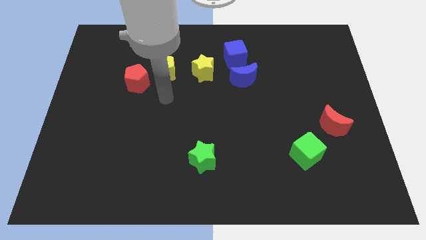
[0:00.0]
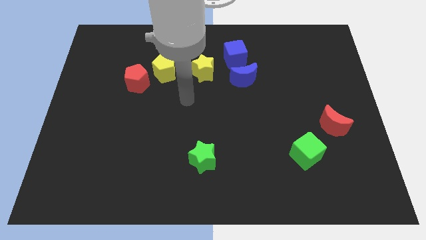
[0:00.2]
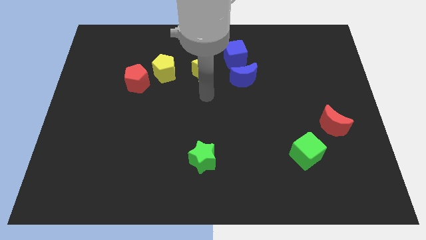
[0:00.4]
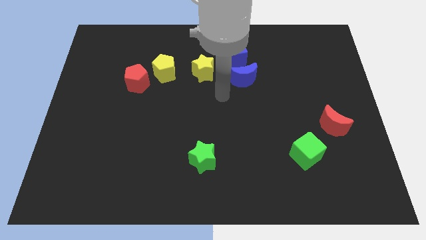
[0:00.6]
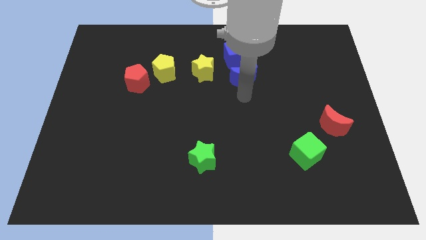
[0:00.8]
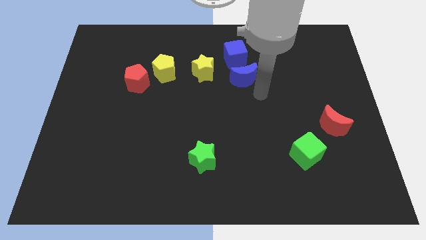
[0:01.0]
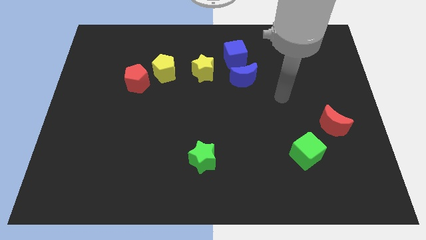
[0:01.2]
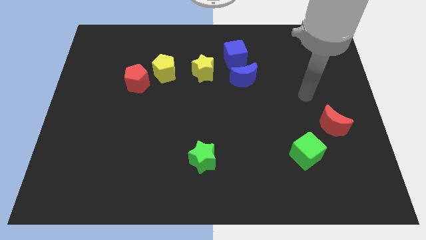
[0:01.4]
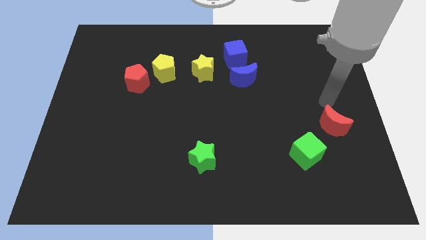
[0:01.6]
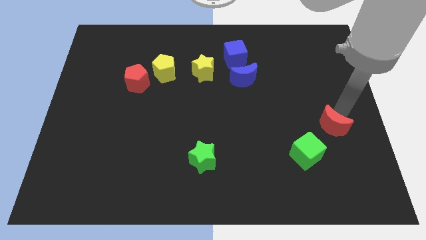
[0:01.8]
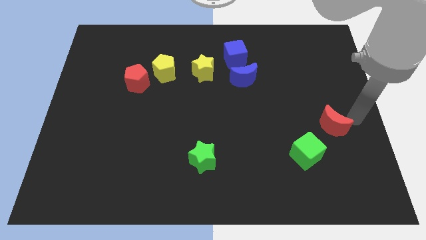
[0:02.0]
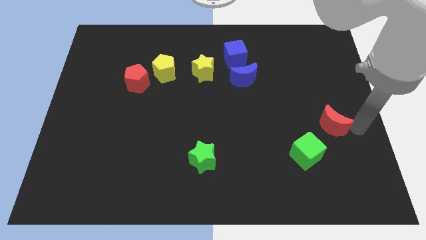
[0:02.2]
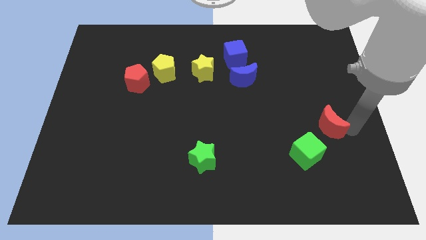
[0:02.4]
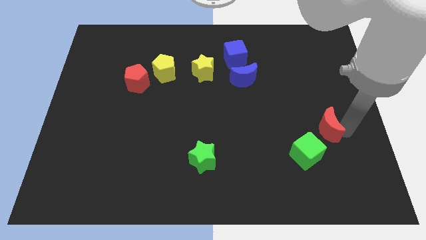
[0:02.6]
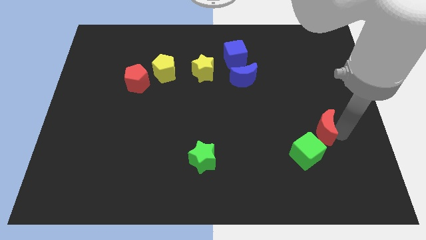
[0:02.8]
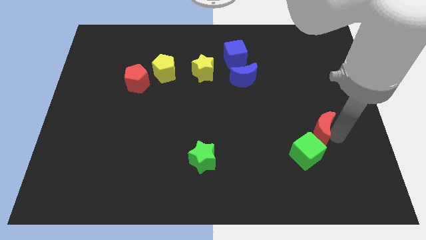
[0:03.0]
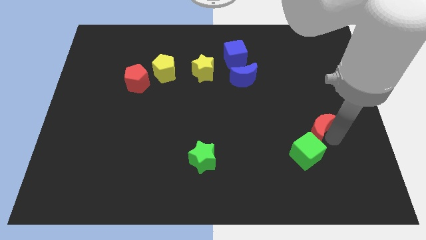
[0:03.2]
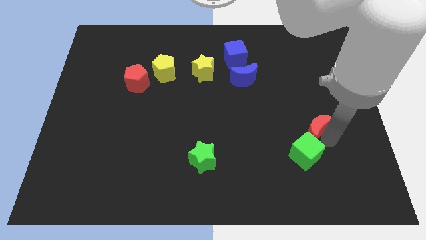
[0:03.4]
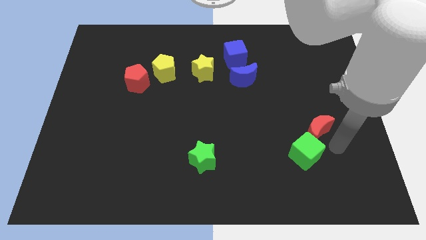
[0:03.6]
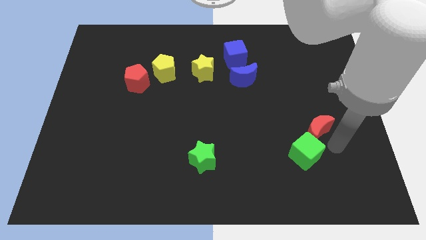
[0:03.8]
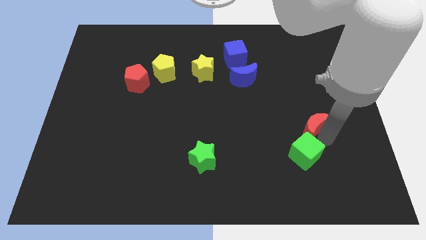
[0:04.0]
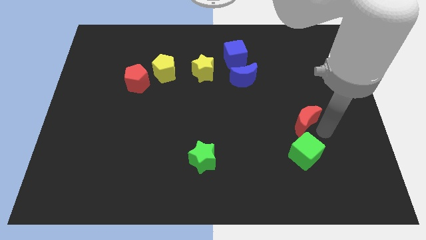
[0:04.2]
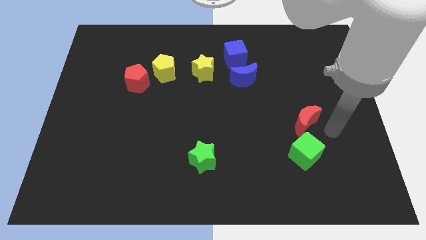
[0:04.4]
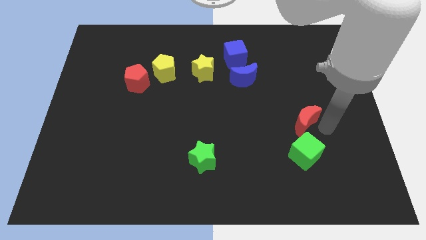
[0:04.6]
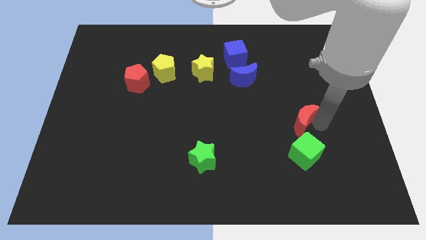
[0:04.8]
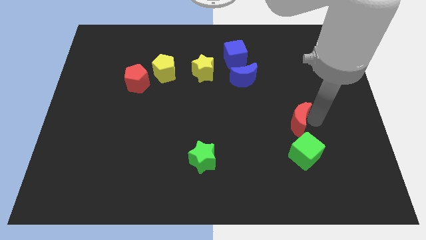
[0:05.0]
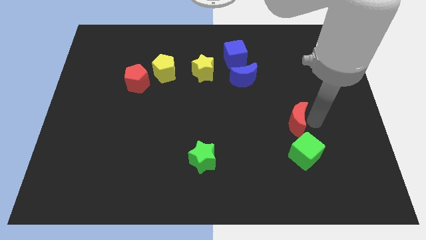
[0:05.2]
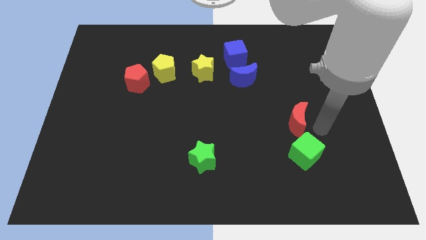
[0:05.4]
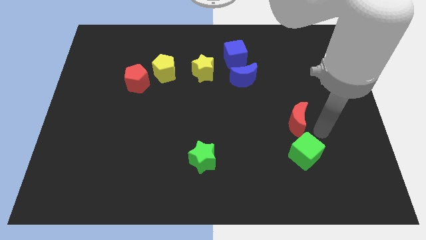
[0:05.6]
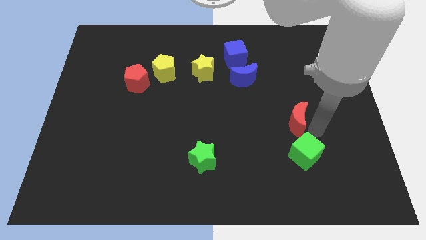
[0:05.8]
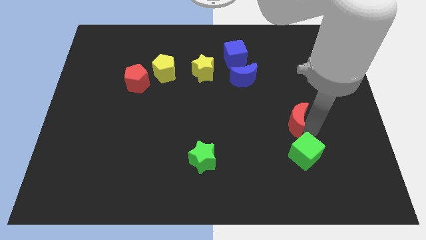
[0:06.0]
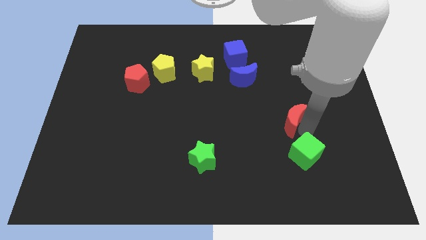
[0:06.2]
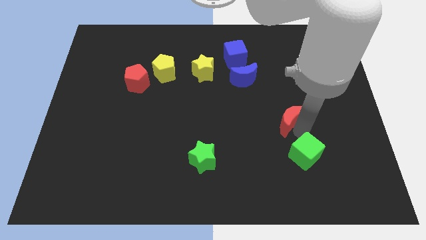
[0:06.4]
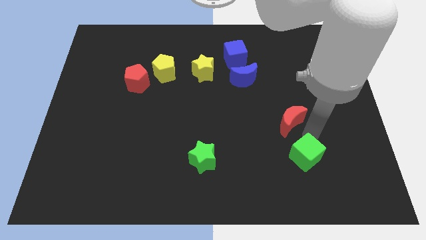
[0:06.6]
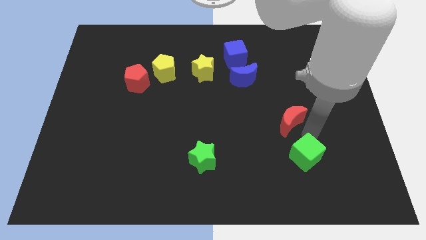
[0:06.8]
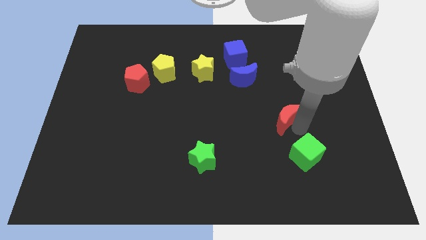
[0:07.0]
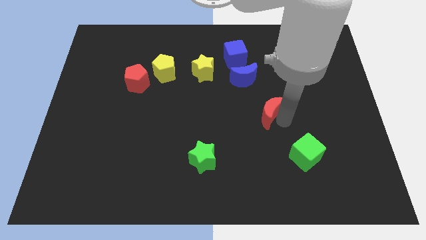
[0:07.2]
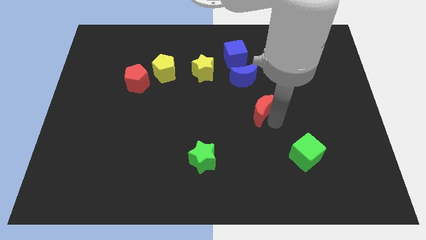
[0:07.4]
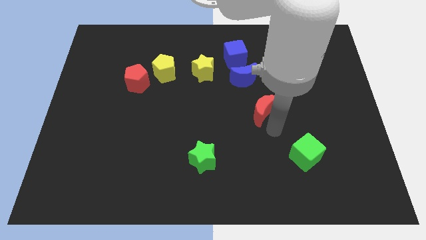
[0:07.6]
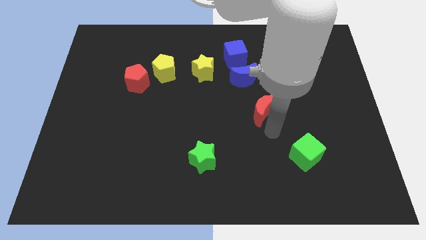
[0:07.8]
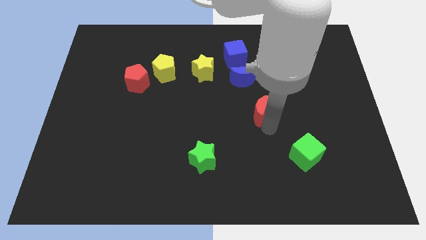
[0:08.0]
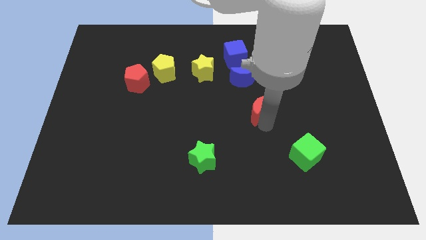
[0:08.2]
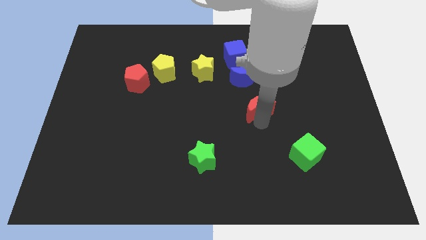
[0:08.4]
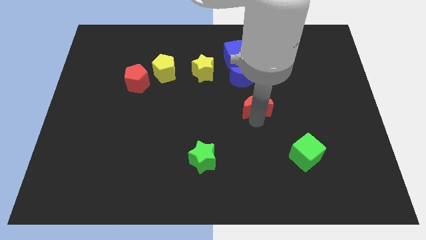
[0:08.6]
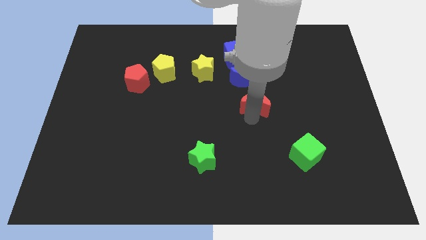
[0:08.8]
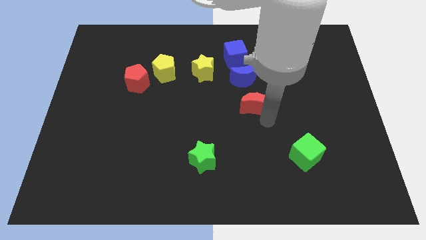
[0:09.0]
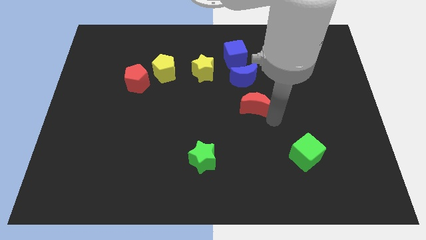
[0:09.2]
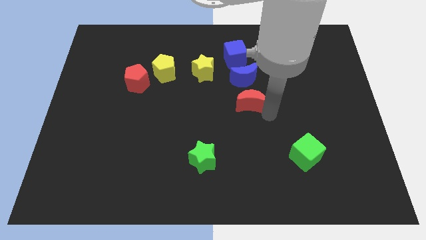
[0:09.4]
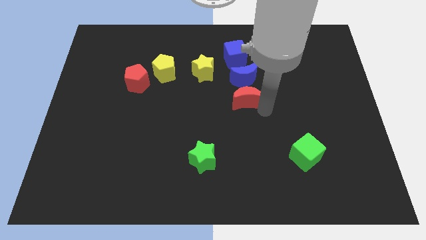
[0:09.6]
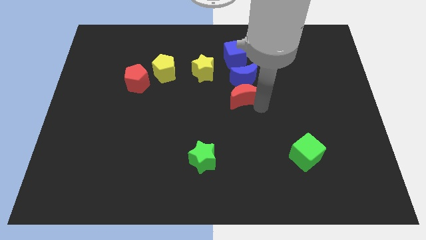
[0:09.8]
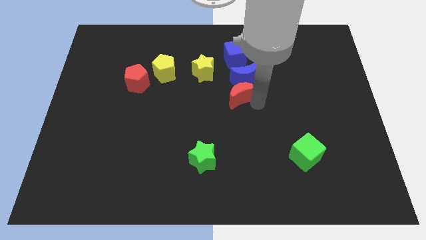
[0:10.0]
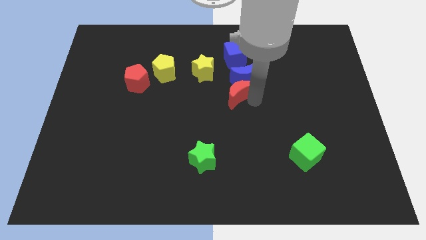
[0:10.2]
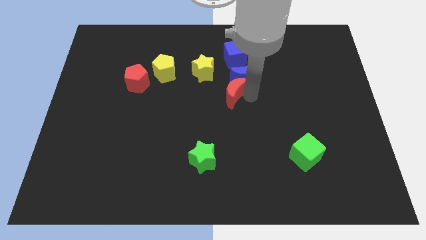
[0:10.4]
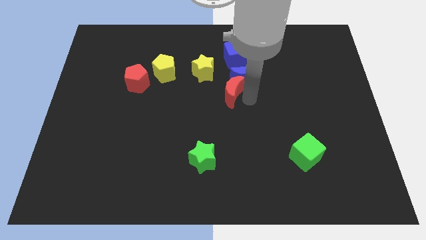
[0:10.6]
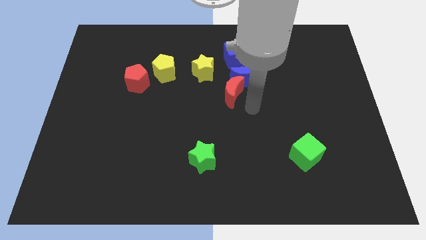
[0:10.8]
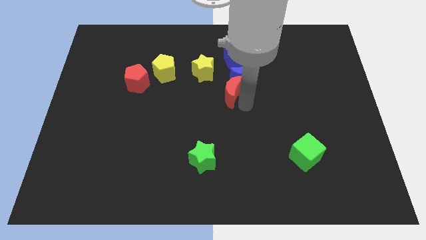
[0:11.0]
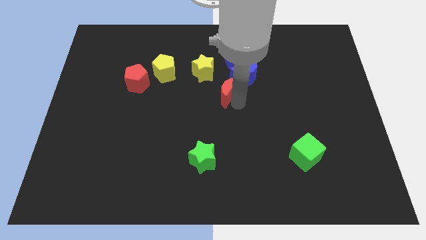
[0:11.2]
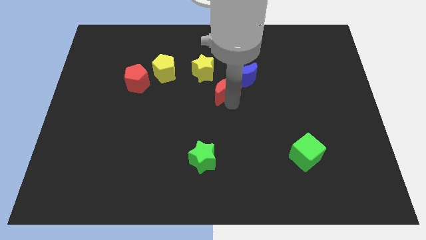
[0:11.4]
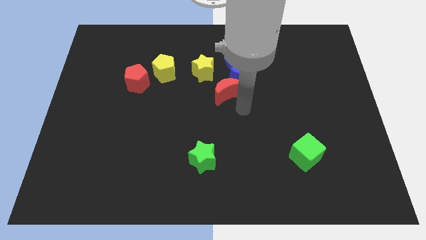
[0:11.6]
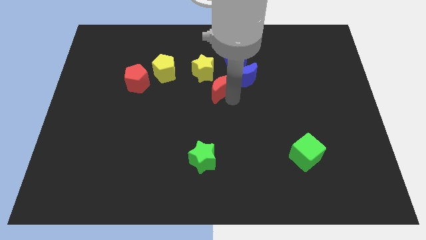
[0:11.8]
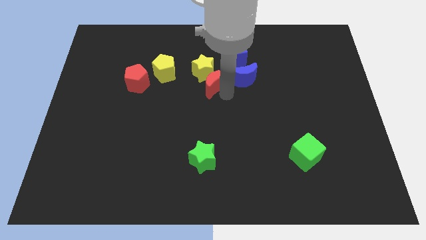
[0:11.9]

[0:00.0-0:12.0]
move the red moon to the yellow star

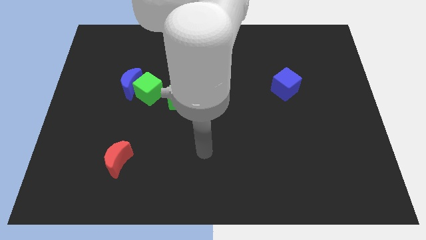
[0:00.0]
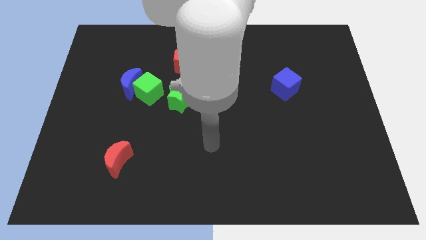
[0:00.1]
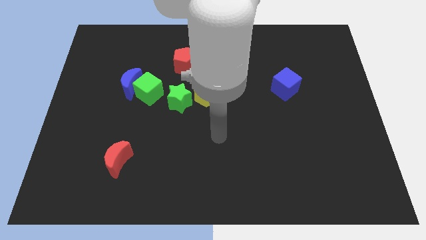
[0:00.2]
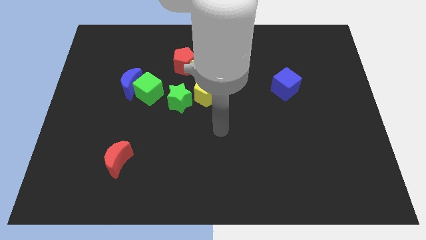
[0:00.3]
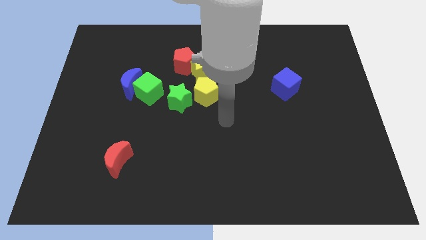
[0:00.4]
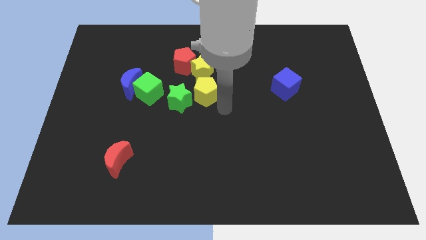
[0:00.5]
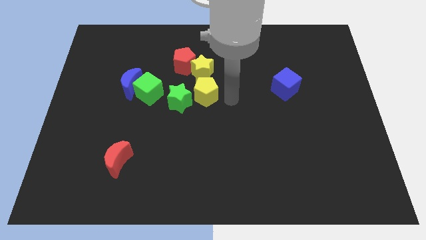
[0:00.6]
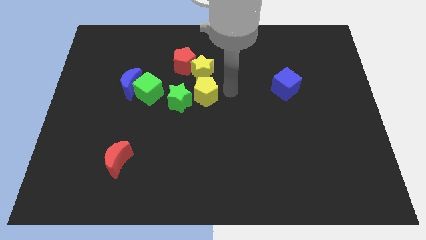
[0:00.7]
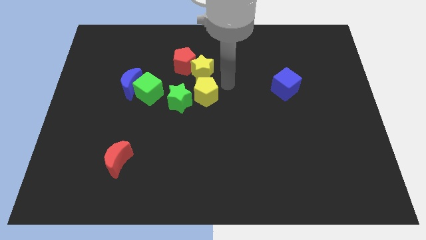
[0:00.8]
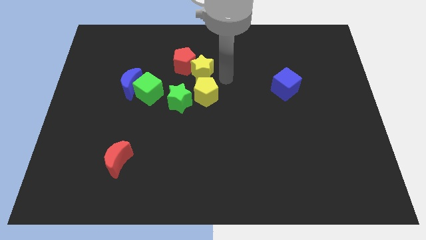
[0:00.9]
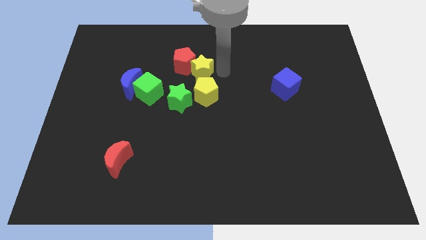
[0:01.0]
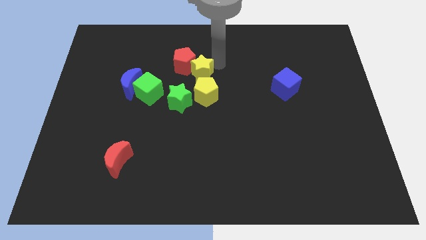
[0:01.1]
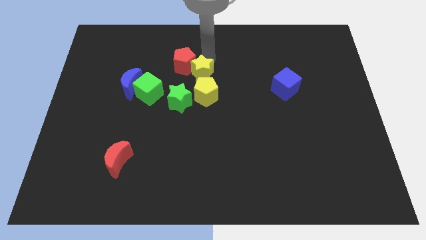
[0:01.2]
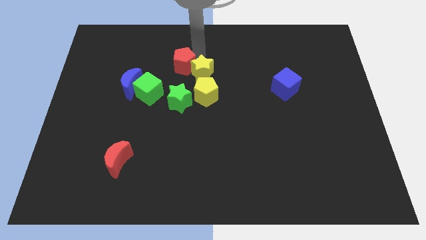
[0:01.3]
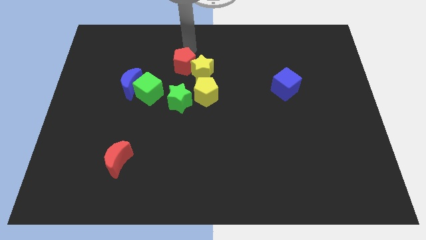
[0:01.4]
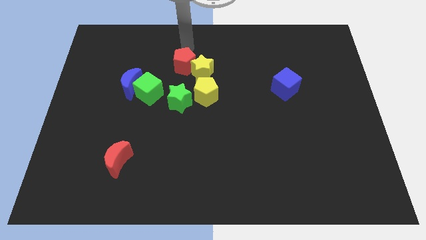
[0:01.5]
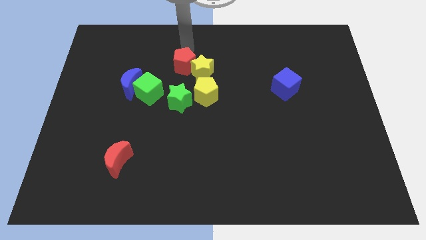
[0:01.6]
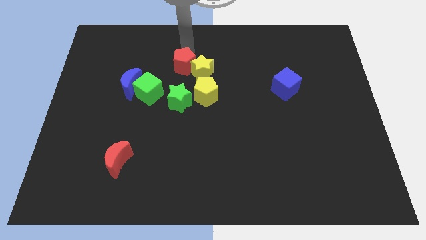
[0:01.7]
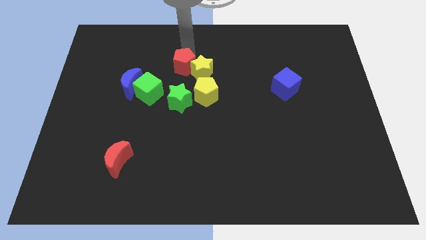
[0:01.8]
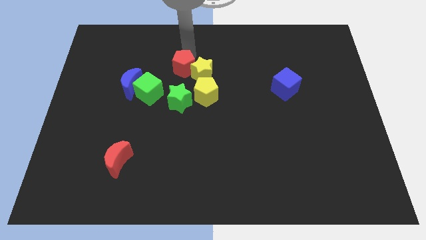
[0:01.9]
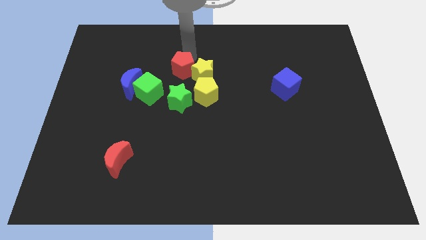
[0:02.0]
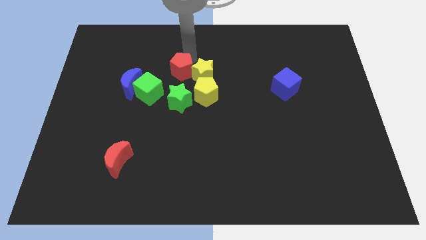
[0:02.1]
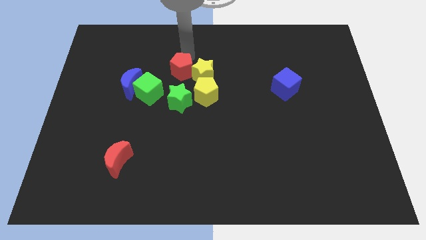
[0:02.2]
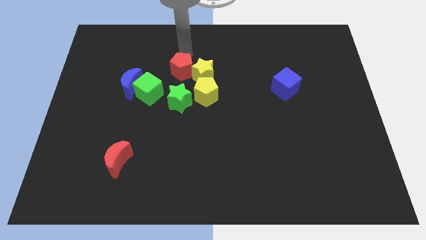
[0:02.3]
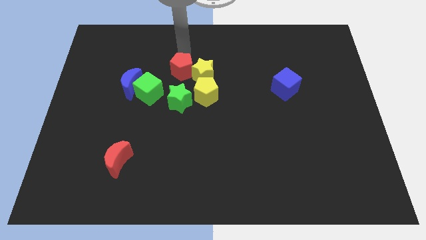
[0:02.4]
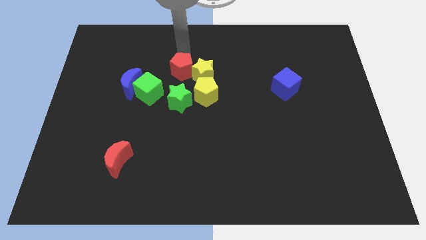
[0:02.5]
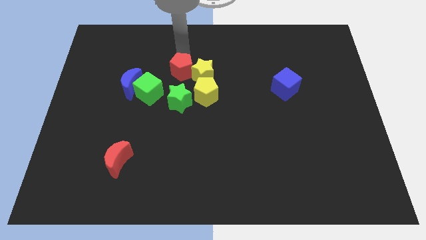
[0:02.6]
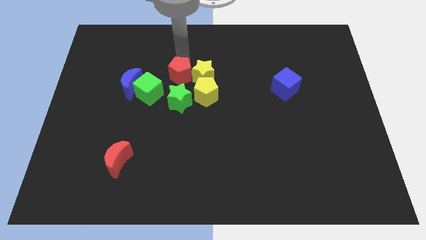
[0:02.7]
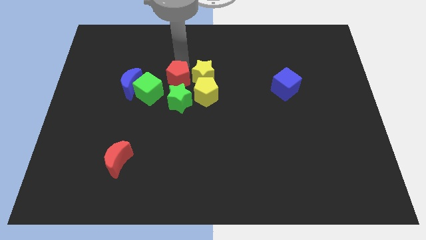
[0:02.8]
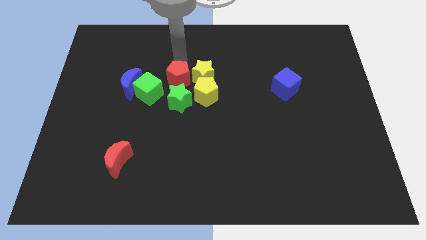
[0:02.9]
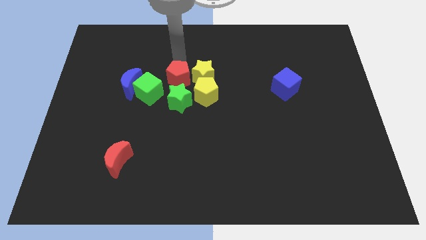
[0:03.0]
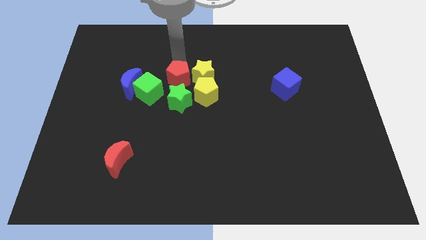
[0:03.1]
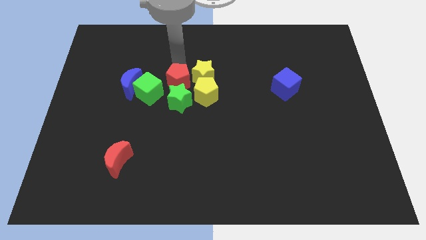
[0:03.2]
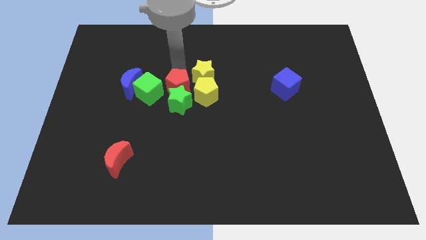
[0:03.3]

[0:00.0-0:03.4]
push the red pentagon close to the green star
